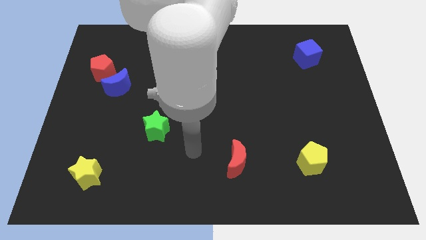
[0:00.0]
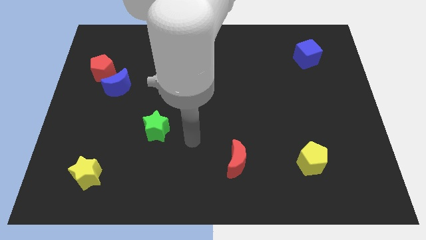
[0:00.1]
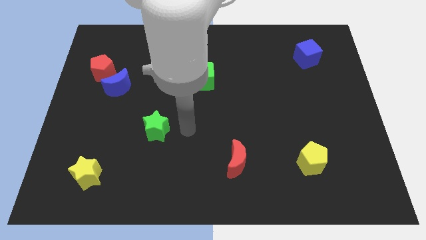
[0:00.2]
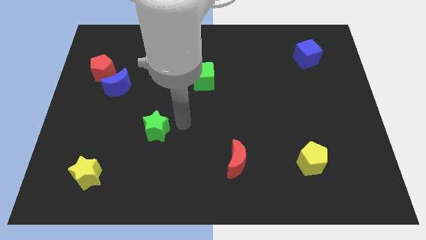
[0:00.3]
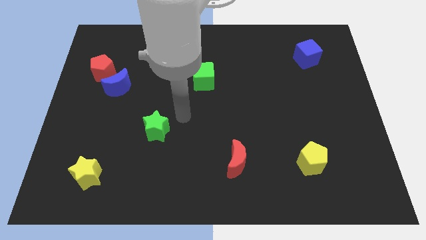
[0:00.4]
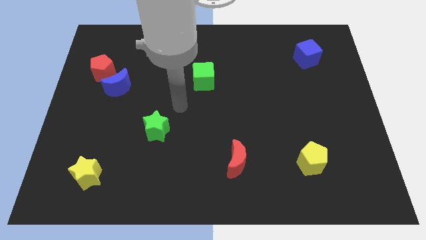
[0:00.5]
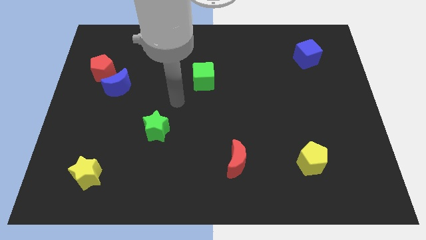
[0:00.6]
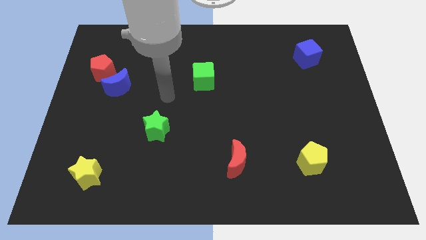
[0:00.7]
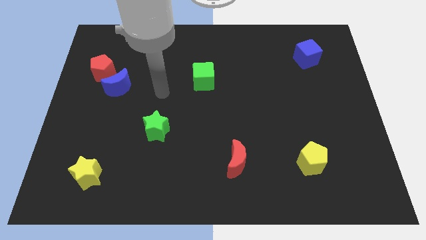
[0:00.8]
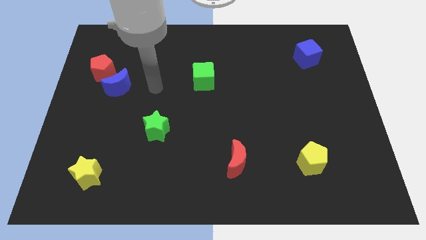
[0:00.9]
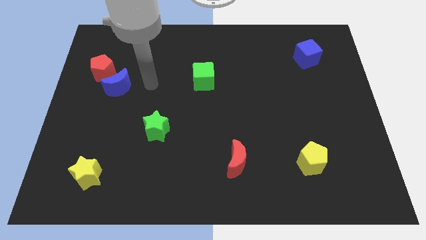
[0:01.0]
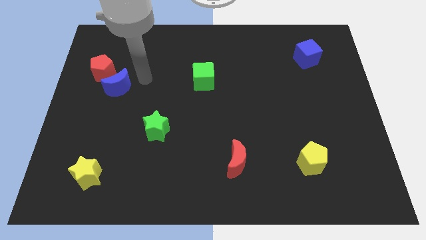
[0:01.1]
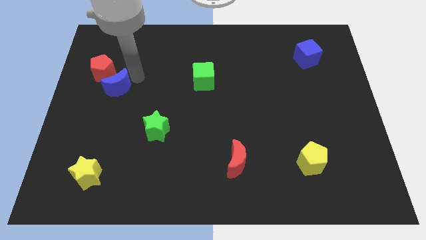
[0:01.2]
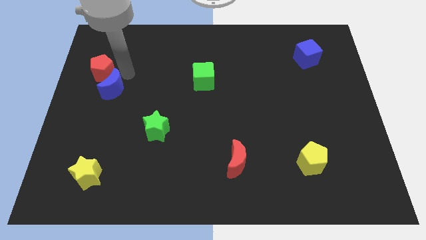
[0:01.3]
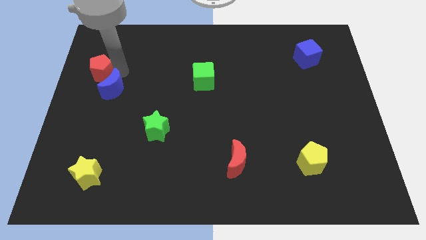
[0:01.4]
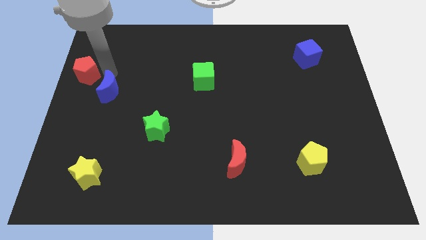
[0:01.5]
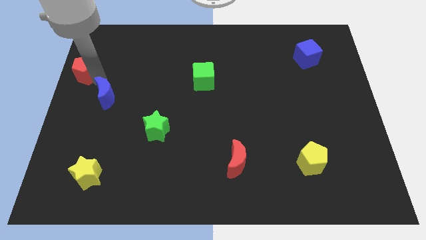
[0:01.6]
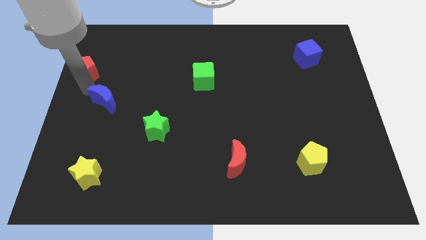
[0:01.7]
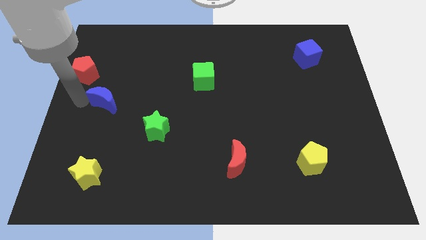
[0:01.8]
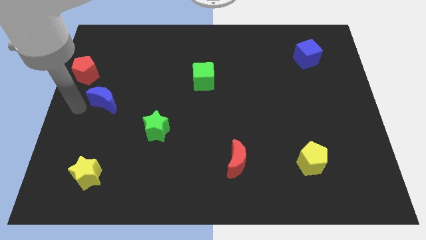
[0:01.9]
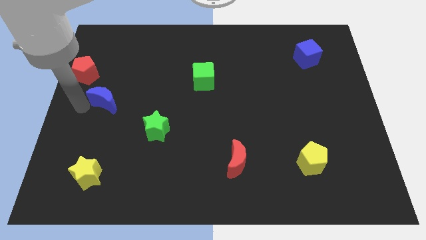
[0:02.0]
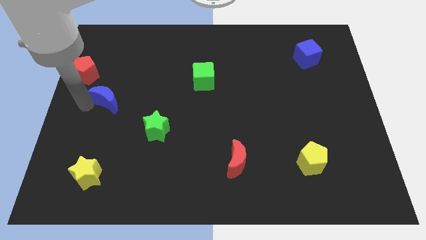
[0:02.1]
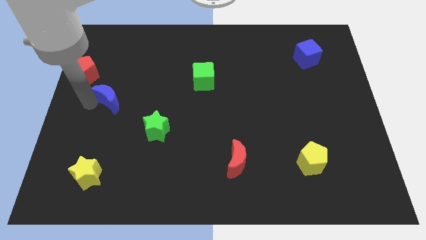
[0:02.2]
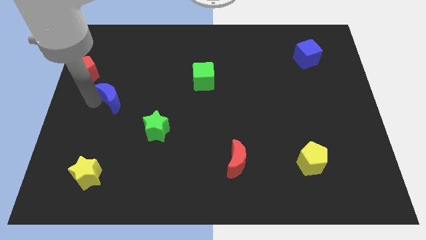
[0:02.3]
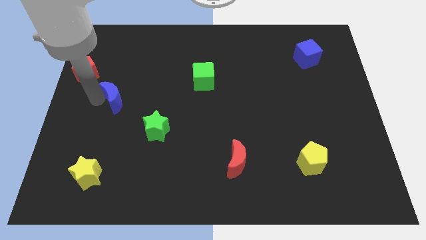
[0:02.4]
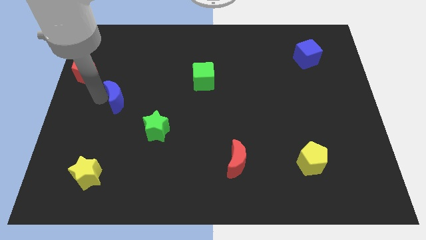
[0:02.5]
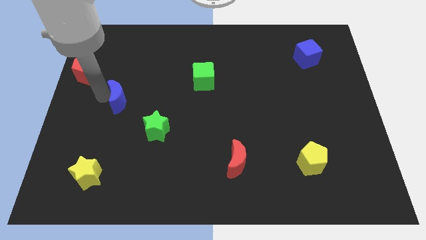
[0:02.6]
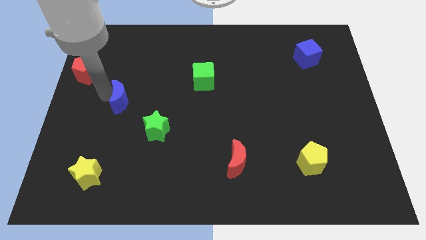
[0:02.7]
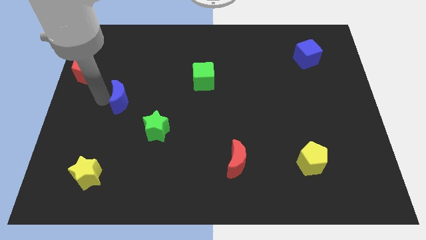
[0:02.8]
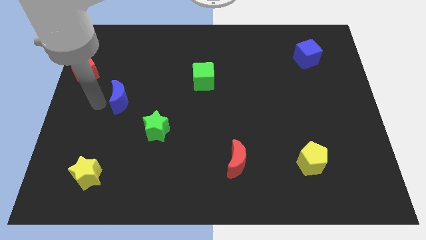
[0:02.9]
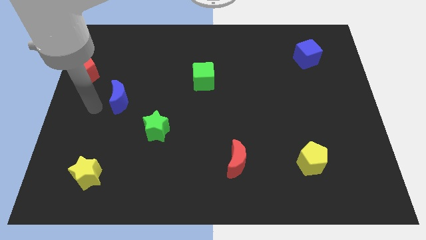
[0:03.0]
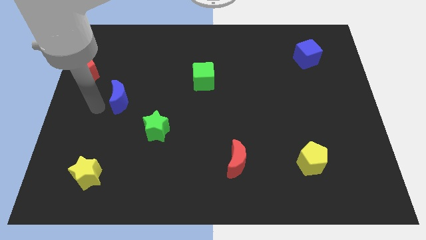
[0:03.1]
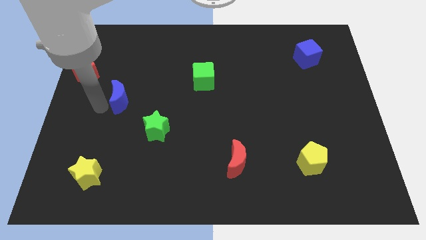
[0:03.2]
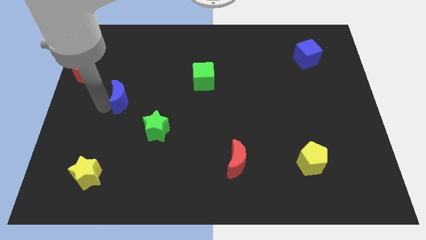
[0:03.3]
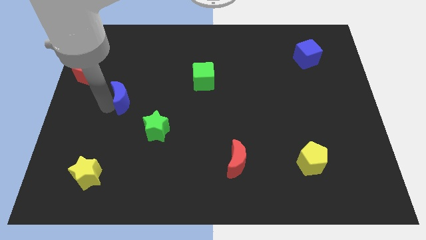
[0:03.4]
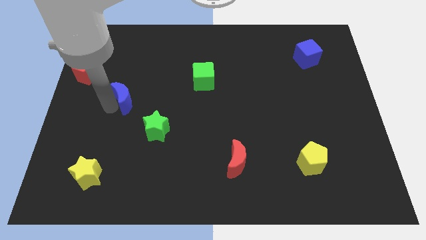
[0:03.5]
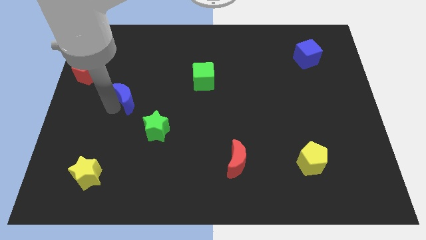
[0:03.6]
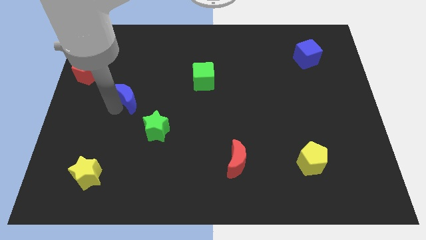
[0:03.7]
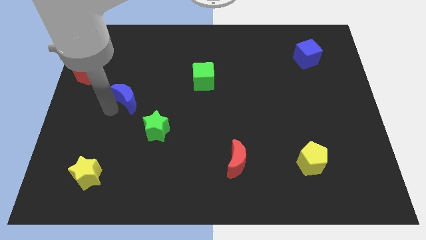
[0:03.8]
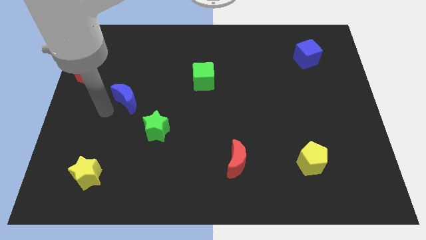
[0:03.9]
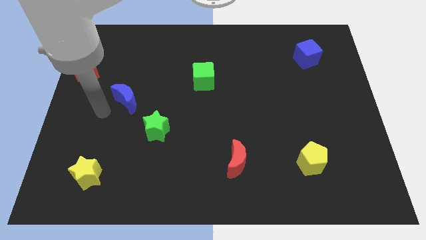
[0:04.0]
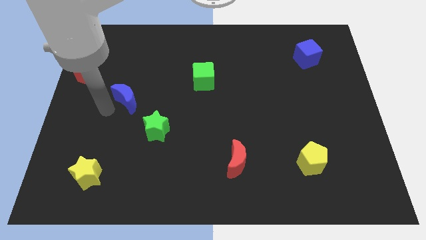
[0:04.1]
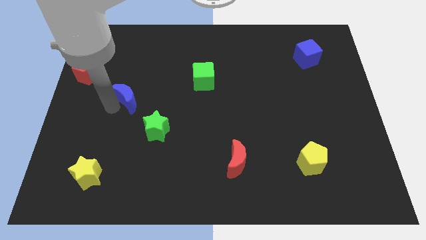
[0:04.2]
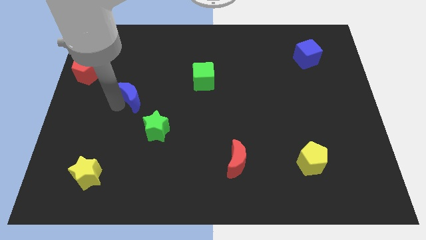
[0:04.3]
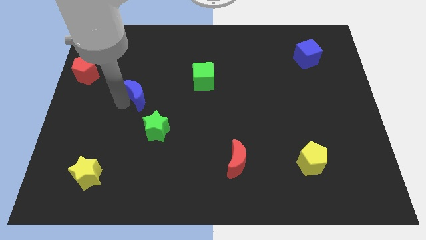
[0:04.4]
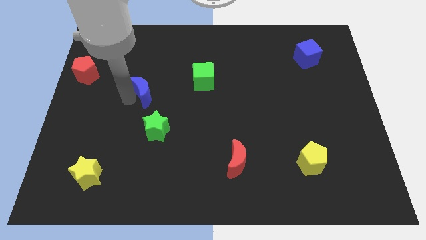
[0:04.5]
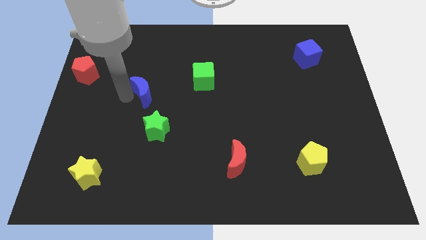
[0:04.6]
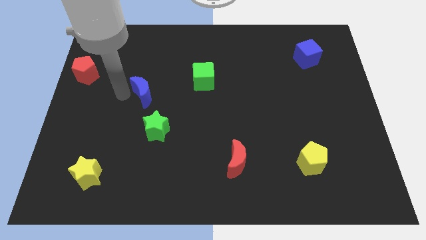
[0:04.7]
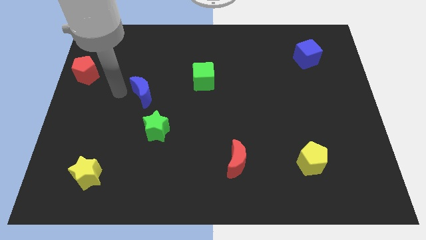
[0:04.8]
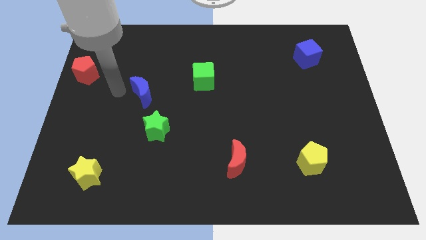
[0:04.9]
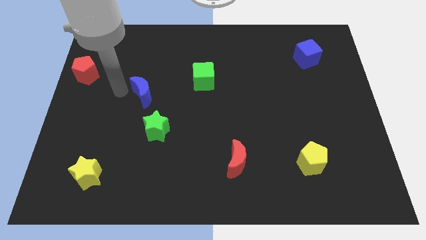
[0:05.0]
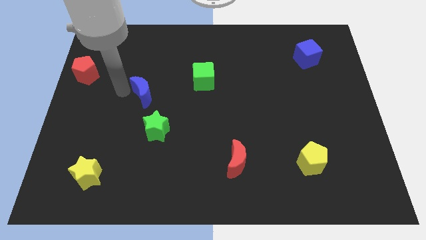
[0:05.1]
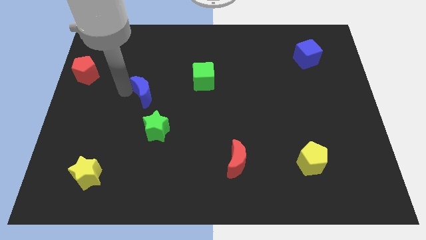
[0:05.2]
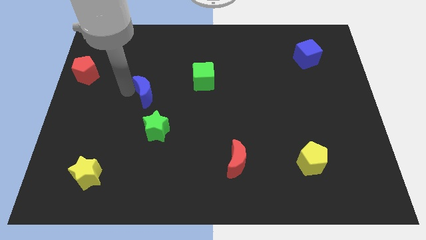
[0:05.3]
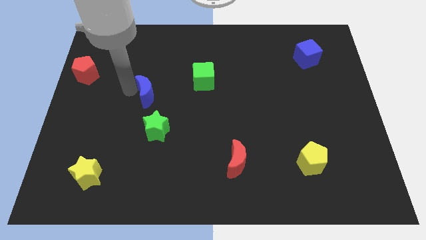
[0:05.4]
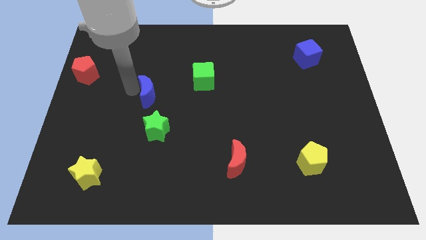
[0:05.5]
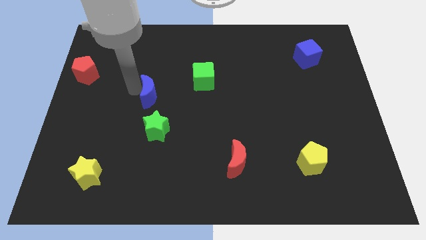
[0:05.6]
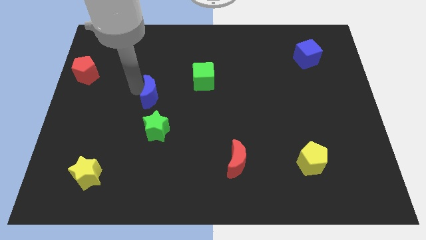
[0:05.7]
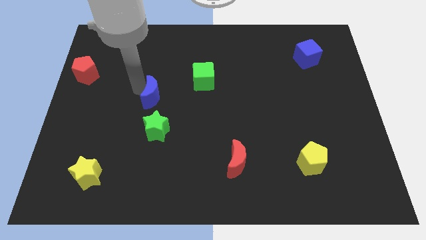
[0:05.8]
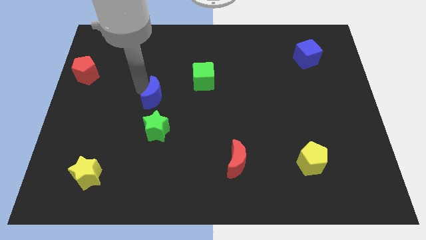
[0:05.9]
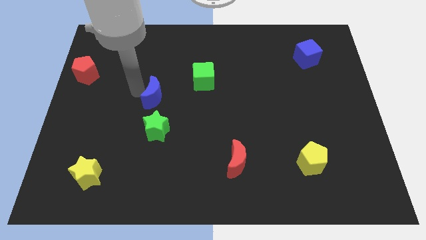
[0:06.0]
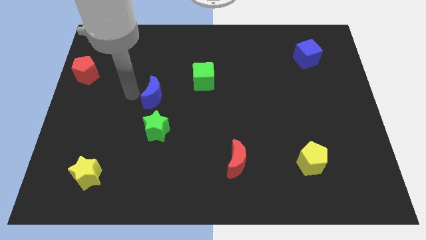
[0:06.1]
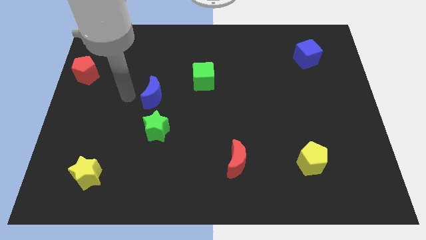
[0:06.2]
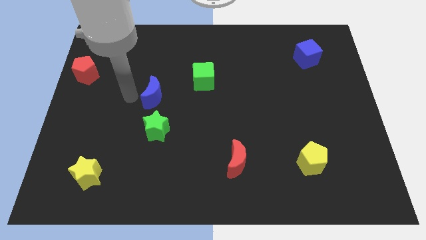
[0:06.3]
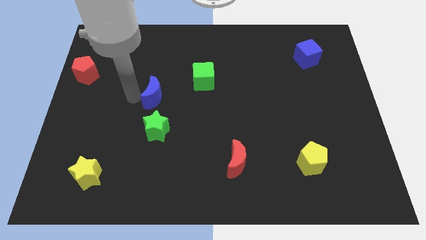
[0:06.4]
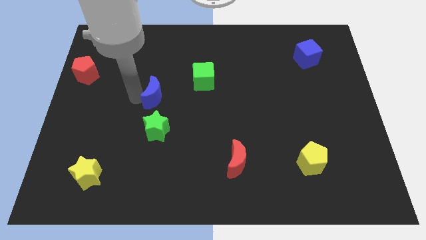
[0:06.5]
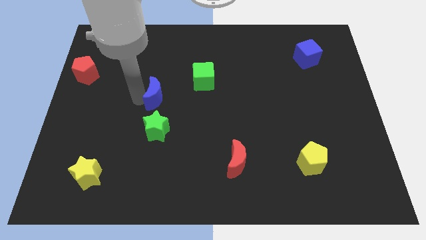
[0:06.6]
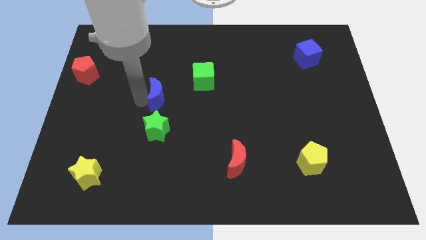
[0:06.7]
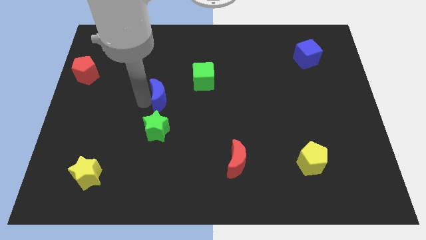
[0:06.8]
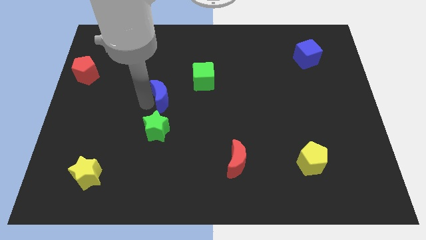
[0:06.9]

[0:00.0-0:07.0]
move the blue moon to the center of the board

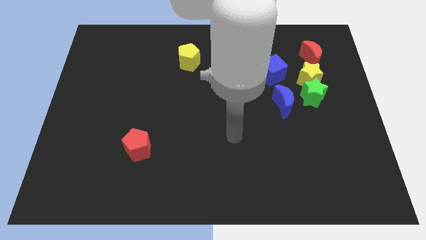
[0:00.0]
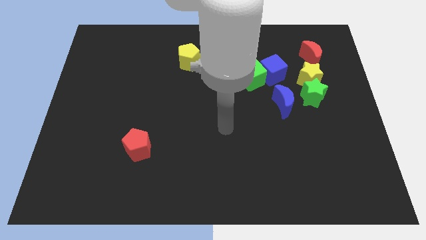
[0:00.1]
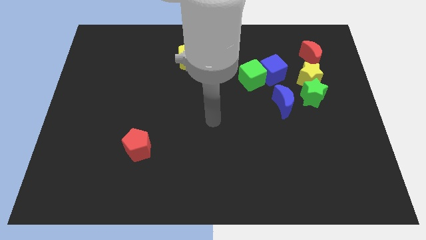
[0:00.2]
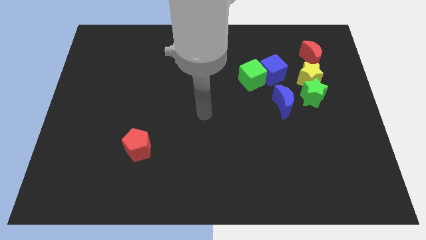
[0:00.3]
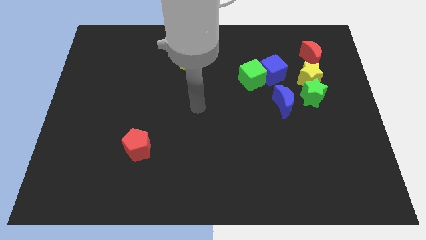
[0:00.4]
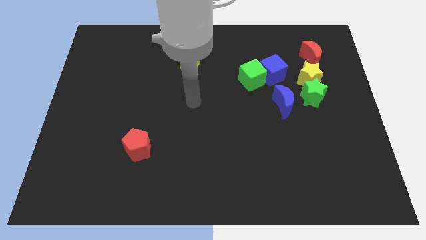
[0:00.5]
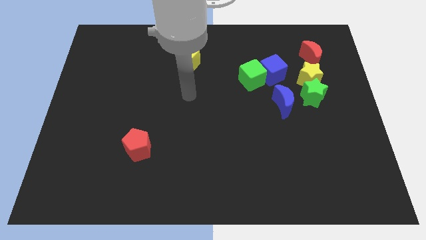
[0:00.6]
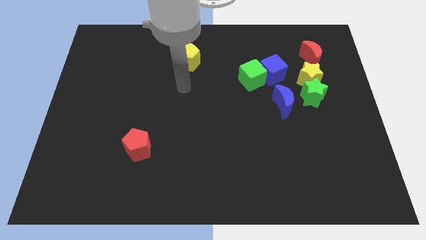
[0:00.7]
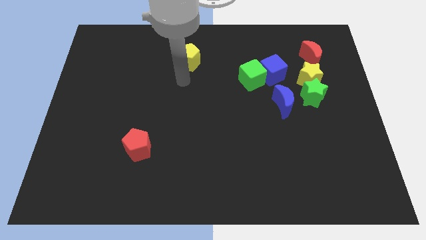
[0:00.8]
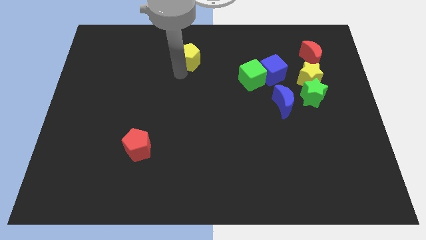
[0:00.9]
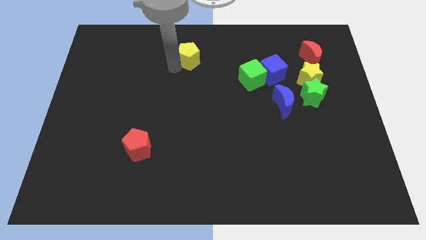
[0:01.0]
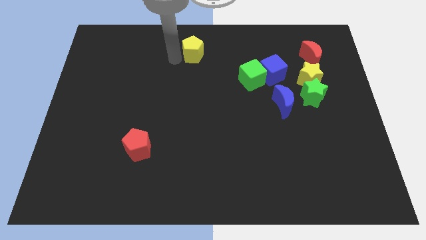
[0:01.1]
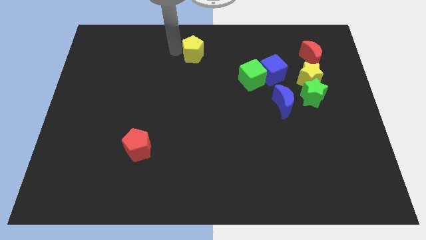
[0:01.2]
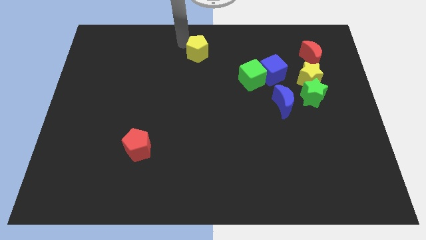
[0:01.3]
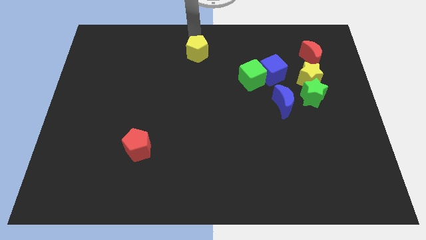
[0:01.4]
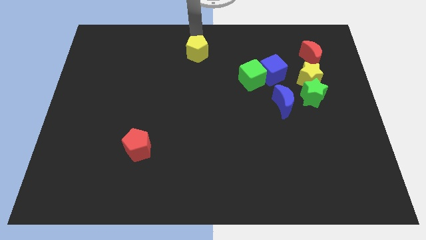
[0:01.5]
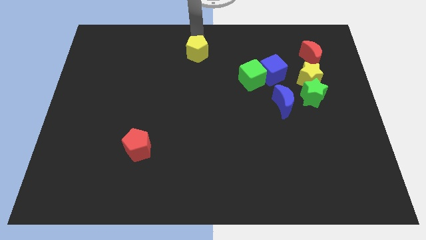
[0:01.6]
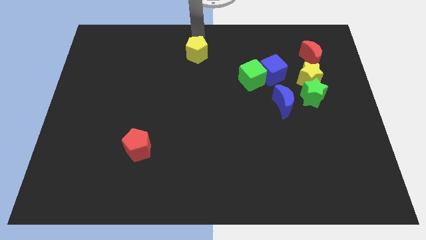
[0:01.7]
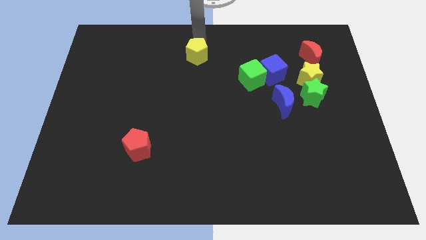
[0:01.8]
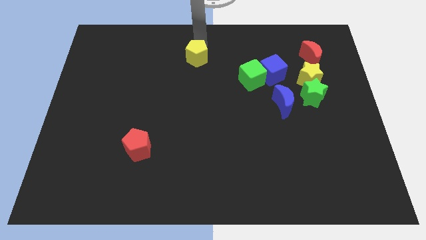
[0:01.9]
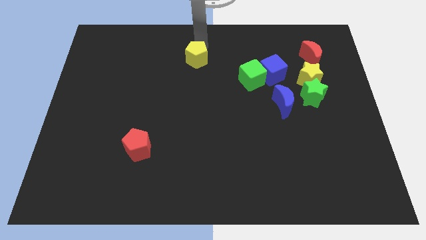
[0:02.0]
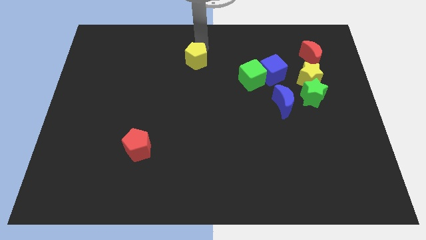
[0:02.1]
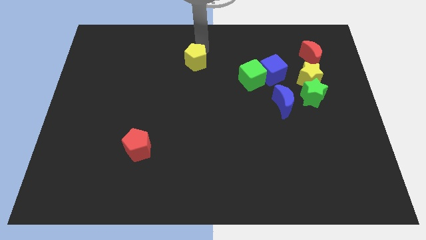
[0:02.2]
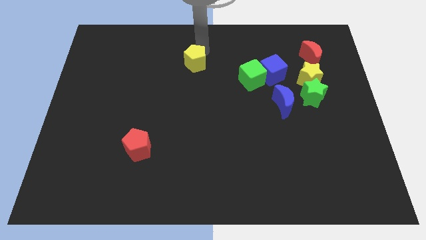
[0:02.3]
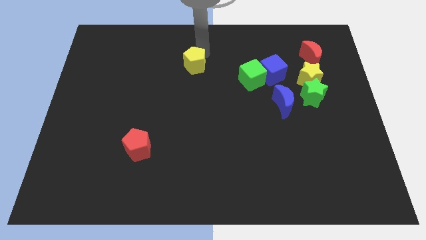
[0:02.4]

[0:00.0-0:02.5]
put the yellow pentagon to the middle of the board
